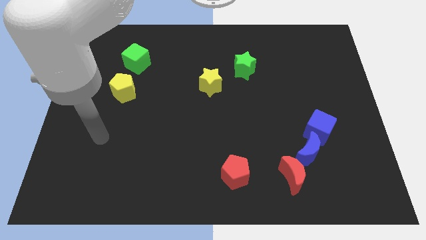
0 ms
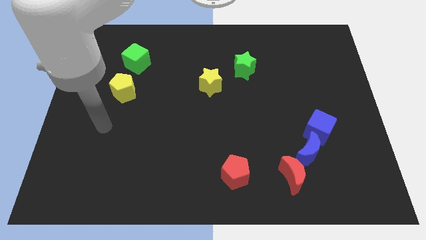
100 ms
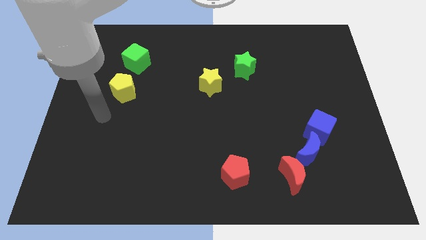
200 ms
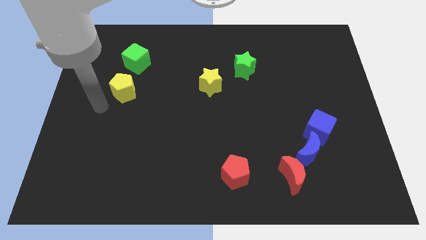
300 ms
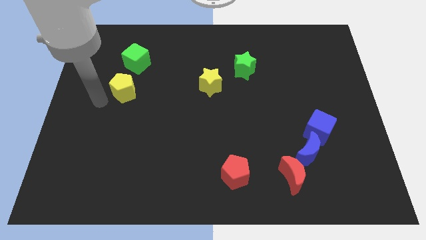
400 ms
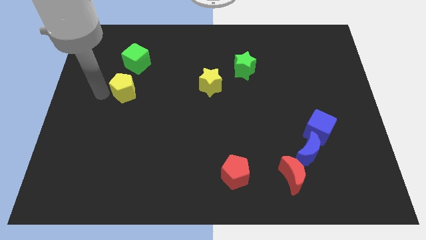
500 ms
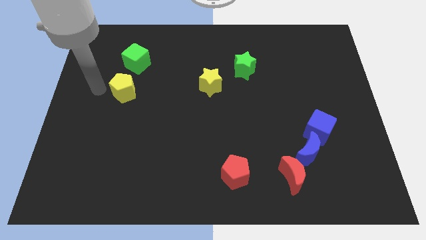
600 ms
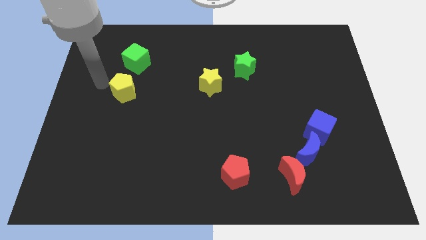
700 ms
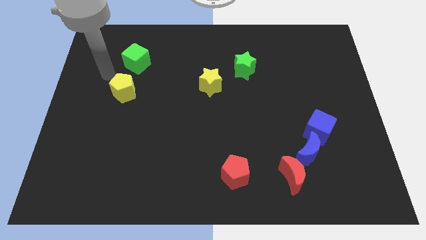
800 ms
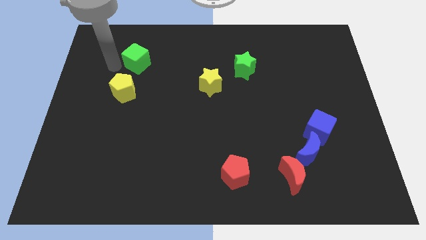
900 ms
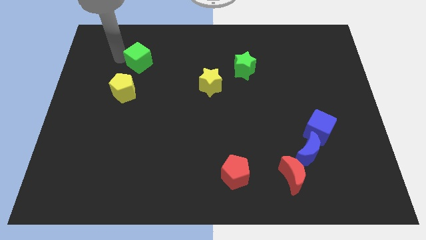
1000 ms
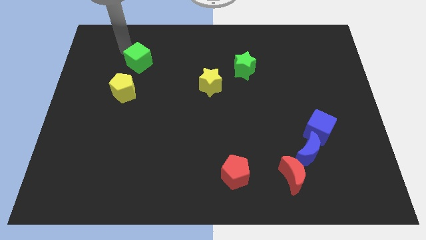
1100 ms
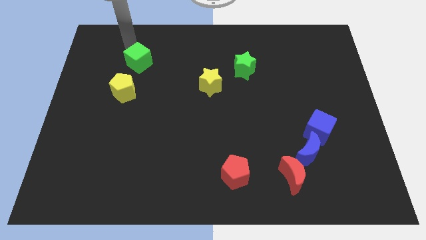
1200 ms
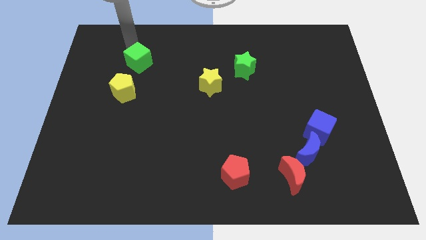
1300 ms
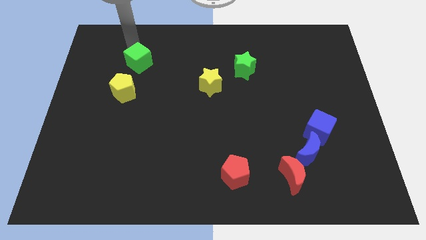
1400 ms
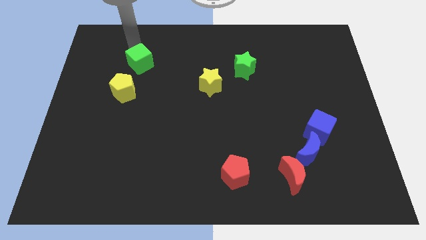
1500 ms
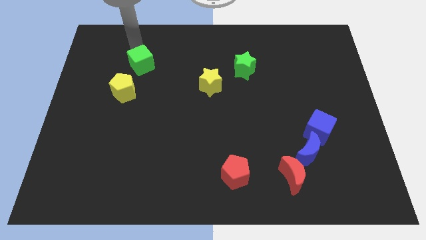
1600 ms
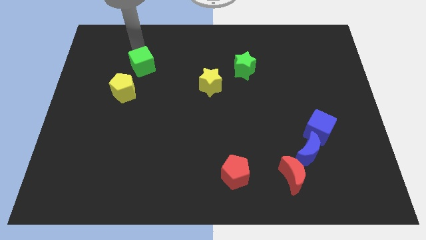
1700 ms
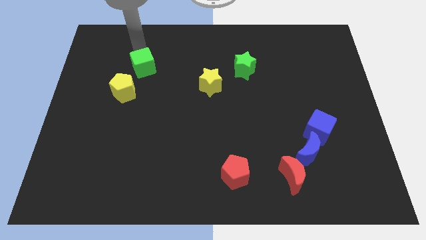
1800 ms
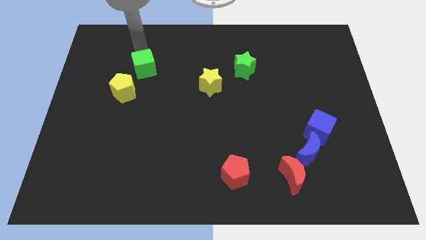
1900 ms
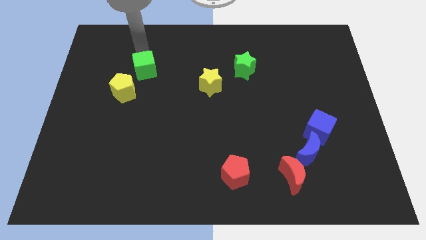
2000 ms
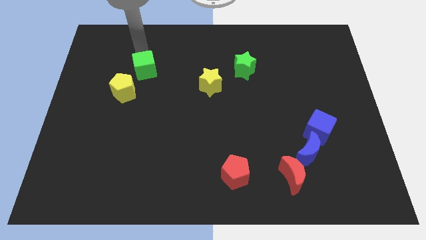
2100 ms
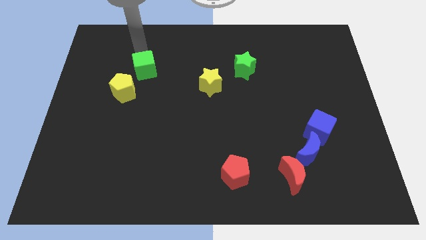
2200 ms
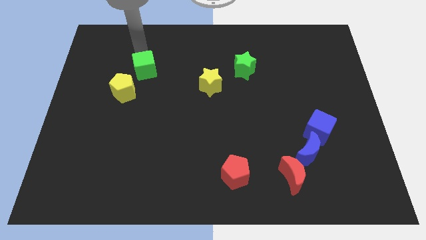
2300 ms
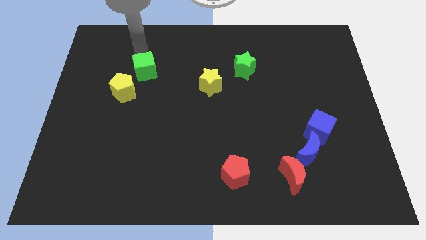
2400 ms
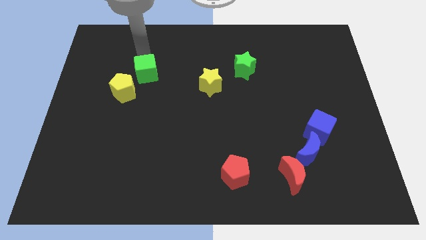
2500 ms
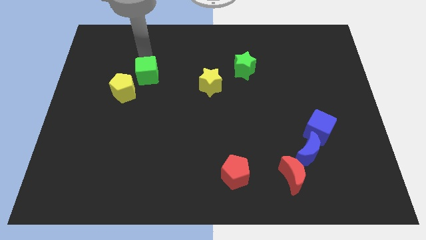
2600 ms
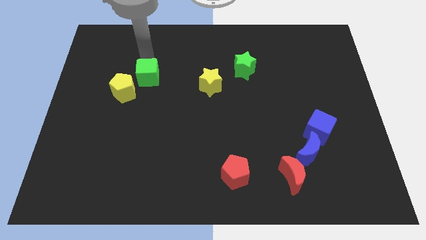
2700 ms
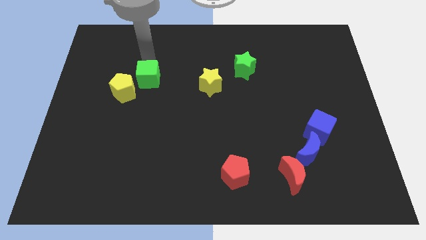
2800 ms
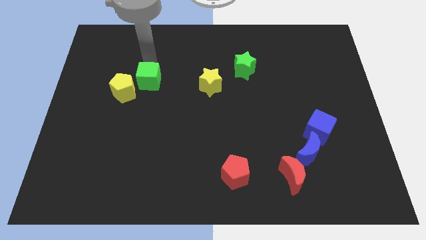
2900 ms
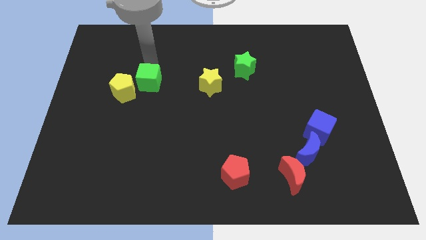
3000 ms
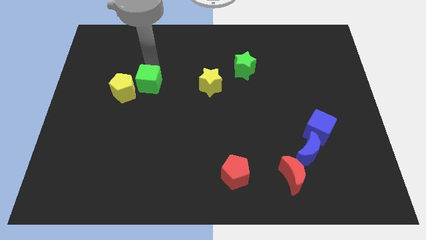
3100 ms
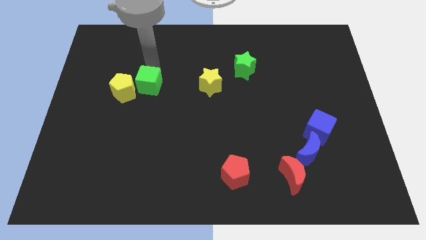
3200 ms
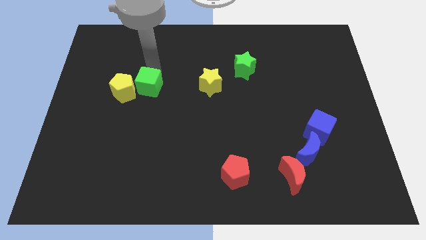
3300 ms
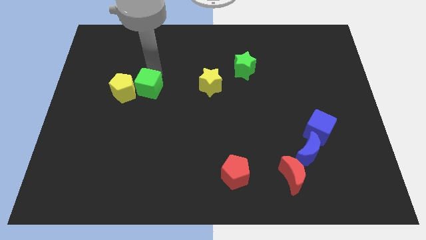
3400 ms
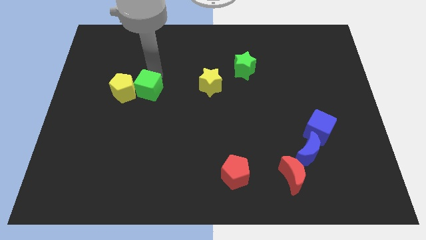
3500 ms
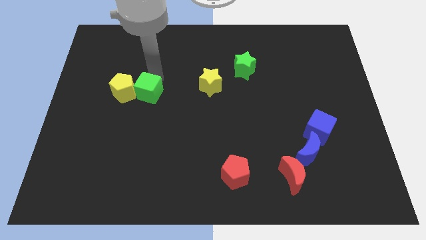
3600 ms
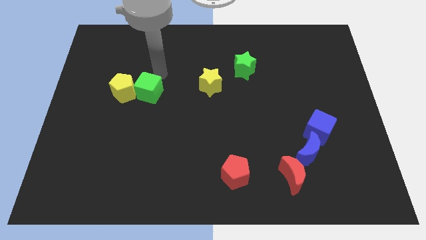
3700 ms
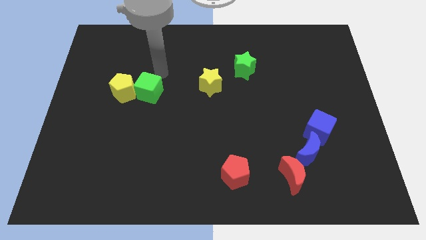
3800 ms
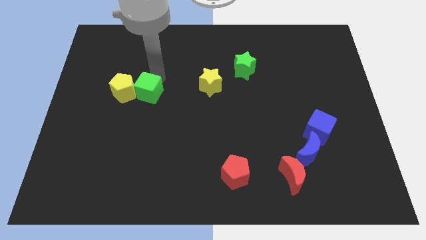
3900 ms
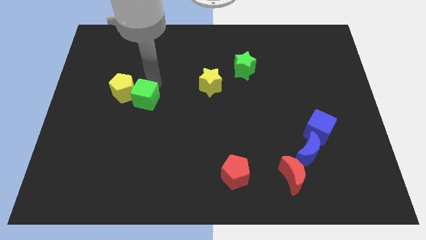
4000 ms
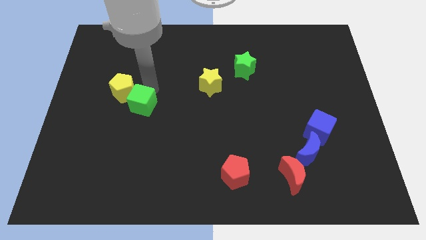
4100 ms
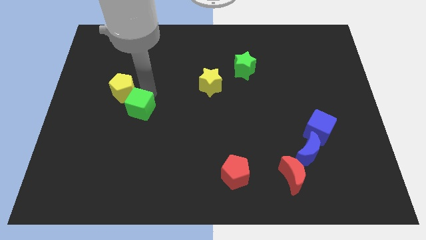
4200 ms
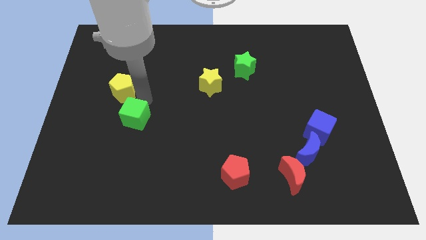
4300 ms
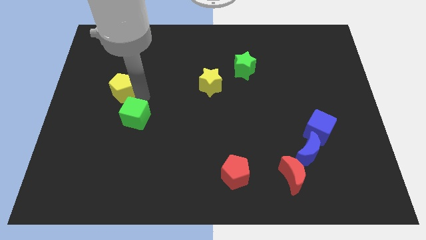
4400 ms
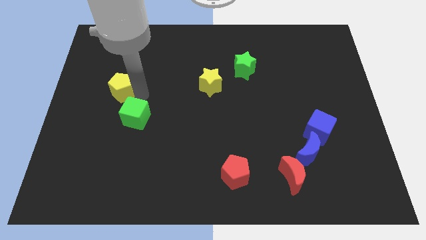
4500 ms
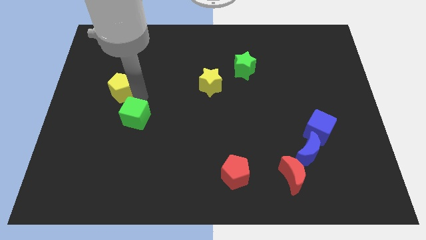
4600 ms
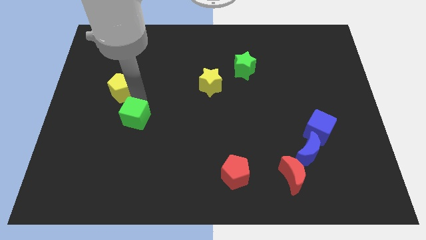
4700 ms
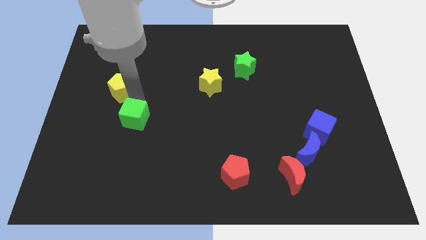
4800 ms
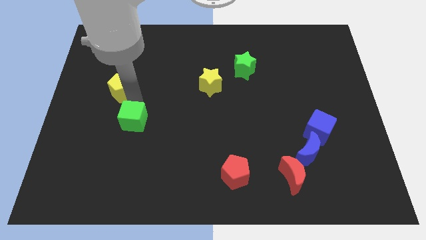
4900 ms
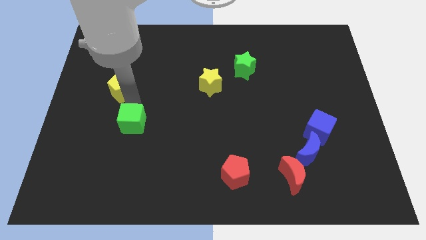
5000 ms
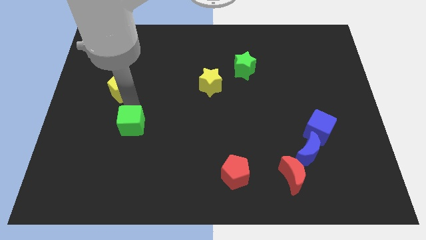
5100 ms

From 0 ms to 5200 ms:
move the green cube down

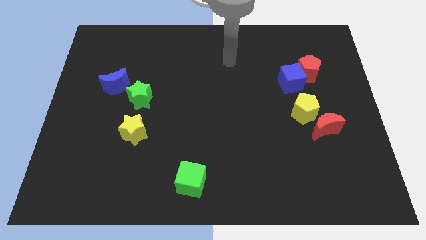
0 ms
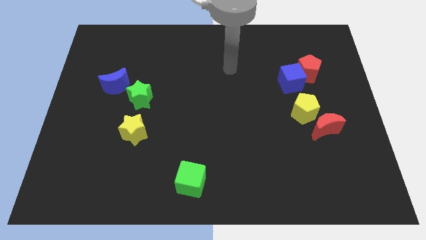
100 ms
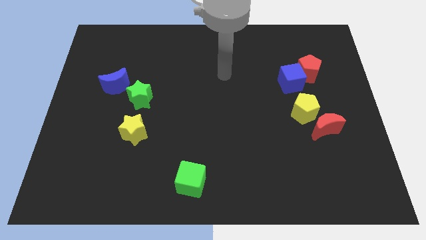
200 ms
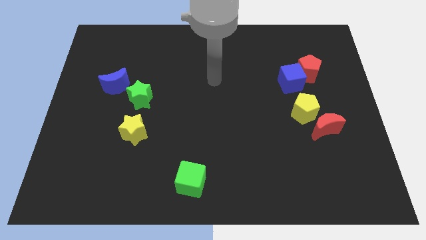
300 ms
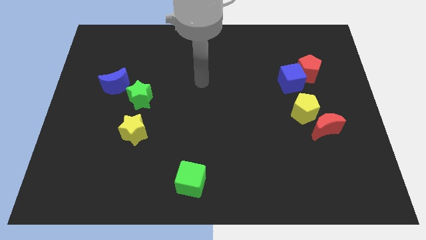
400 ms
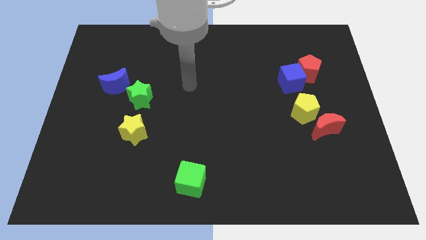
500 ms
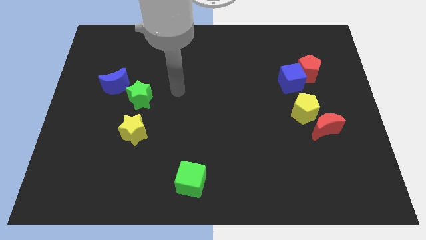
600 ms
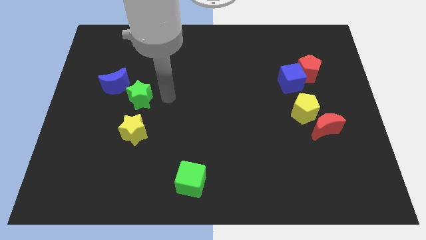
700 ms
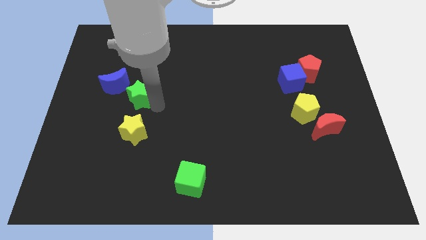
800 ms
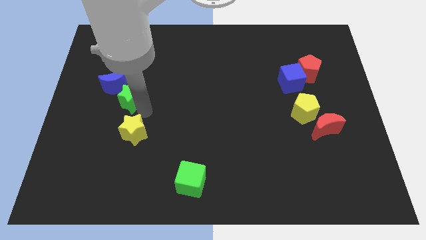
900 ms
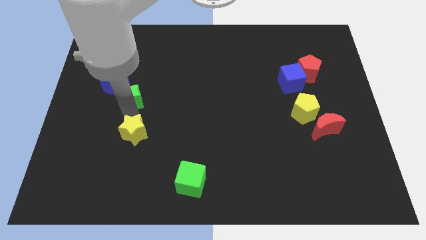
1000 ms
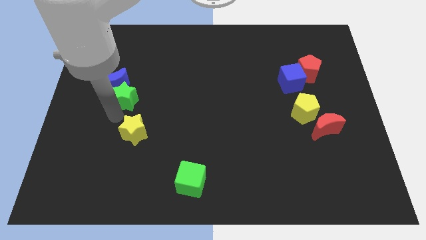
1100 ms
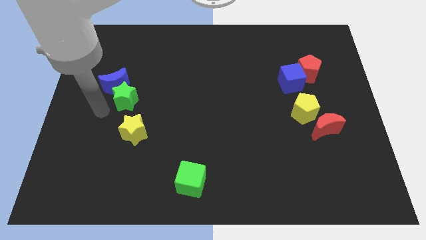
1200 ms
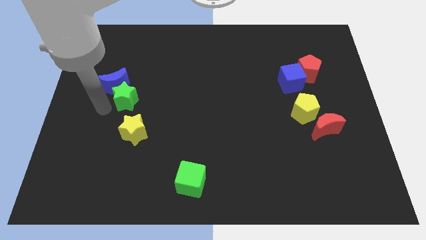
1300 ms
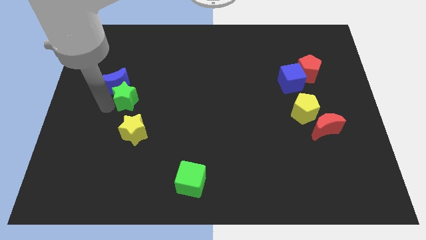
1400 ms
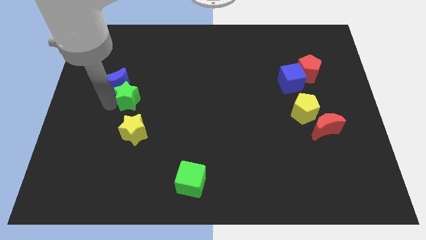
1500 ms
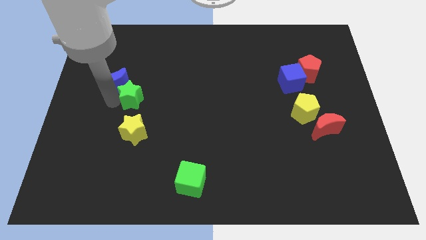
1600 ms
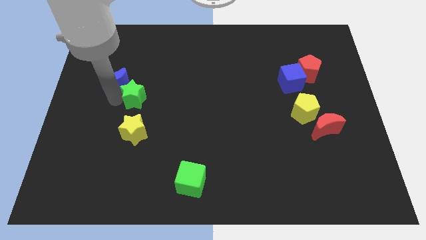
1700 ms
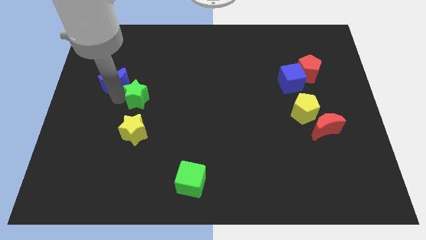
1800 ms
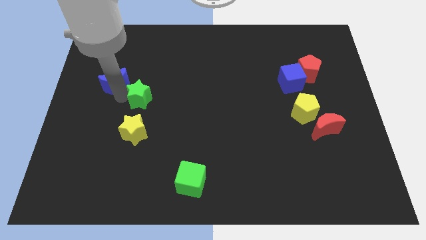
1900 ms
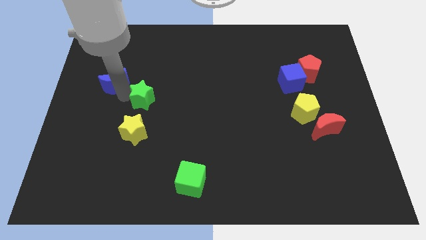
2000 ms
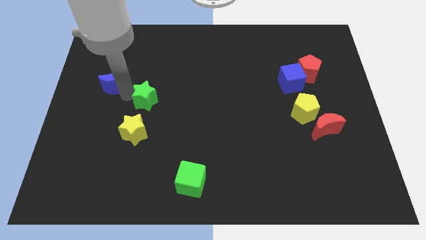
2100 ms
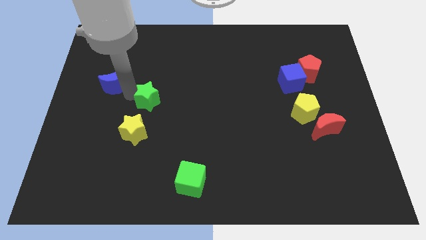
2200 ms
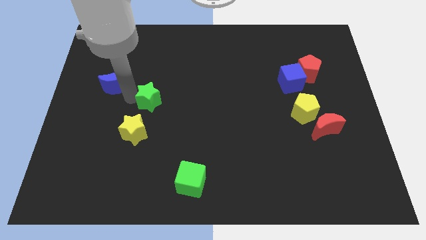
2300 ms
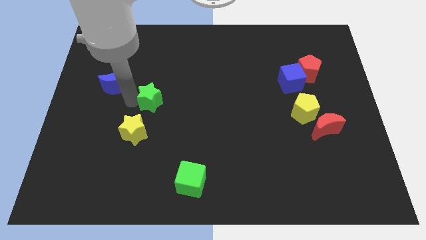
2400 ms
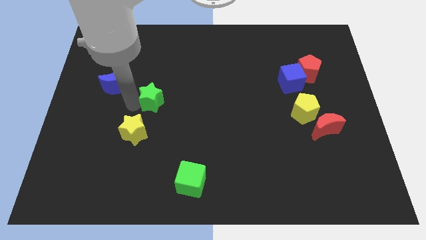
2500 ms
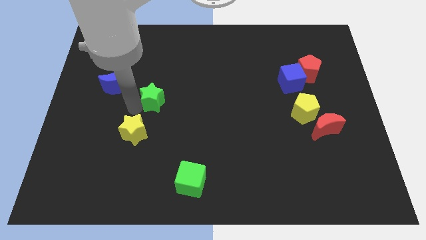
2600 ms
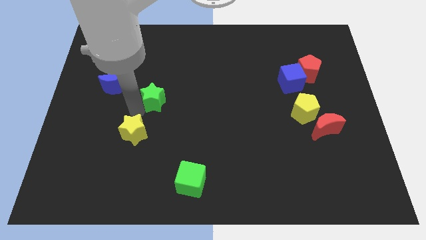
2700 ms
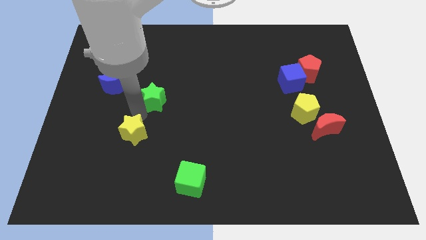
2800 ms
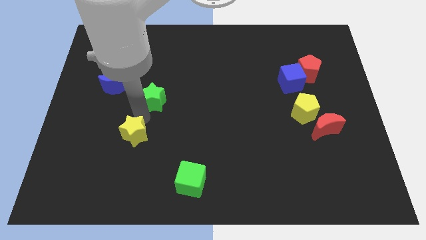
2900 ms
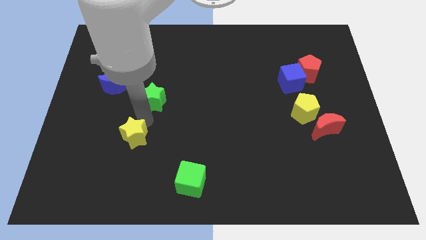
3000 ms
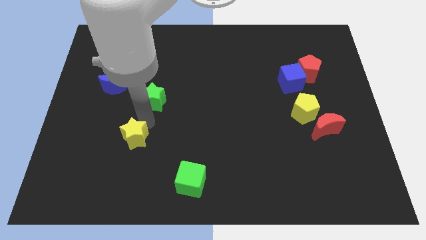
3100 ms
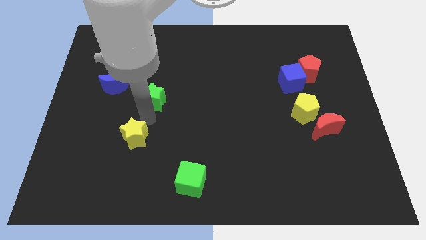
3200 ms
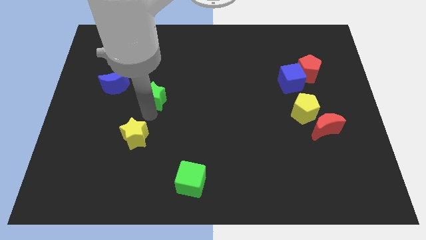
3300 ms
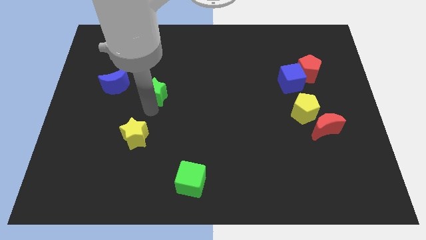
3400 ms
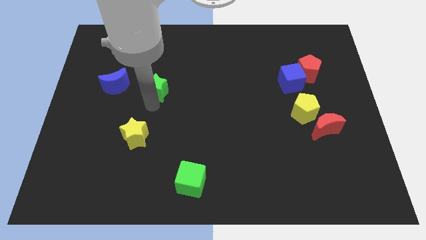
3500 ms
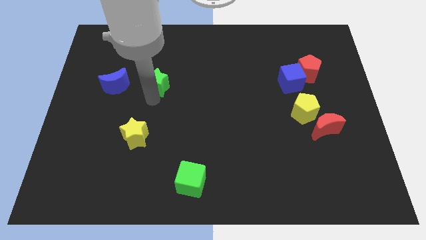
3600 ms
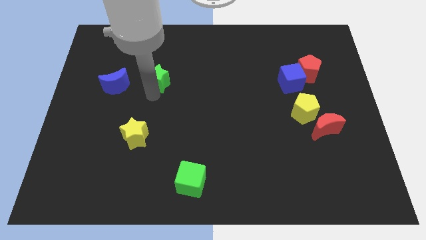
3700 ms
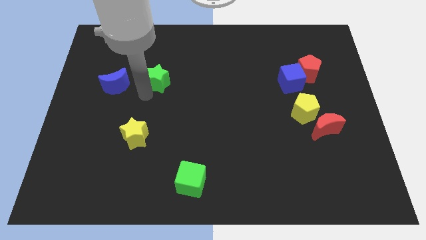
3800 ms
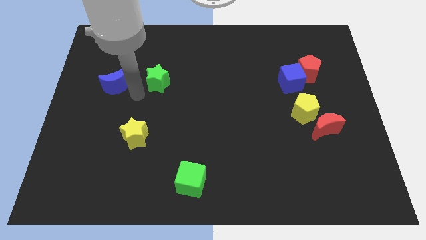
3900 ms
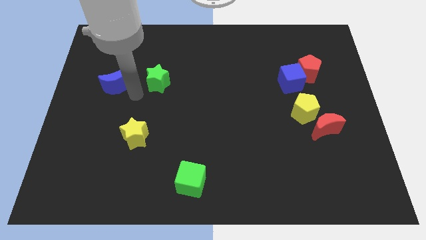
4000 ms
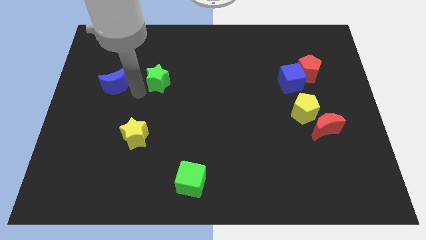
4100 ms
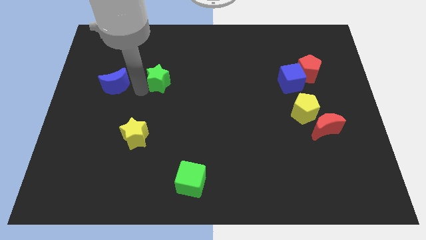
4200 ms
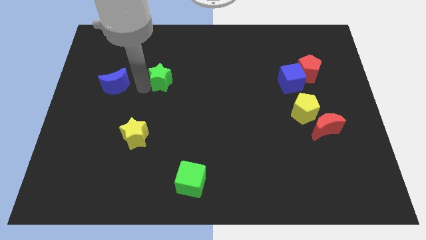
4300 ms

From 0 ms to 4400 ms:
slightly push the green star up and right diagonally
